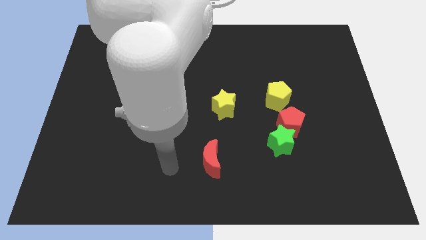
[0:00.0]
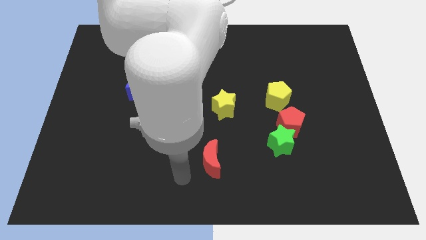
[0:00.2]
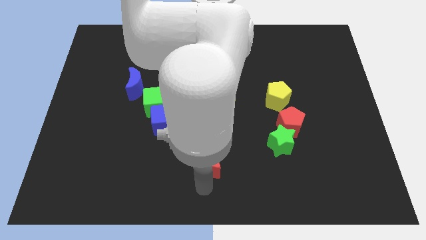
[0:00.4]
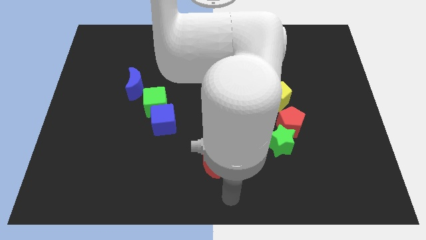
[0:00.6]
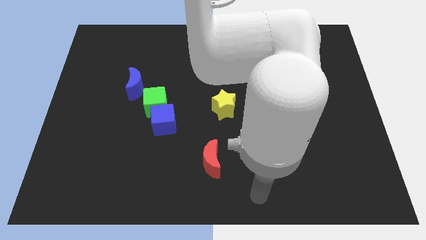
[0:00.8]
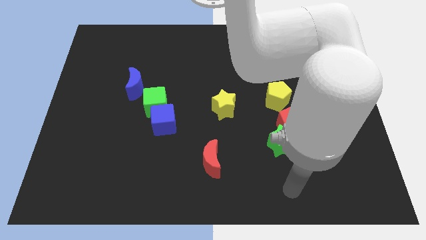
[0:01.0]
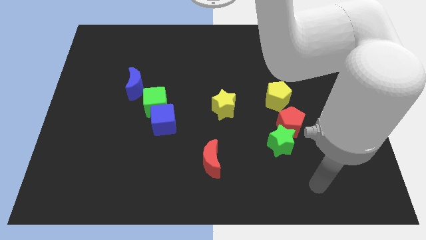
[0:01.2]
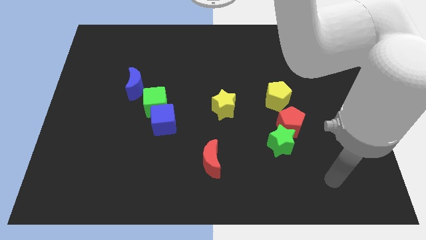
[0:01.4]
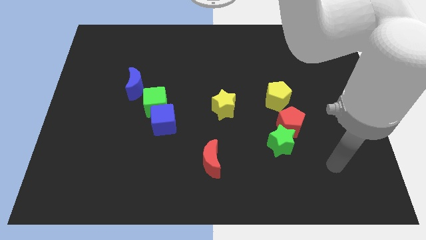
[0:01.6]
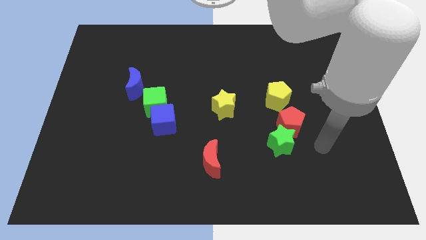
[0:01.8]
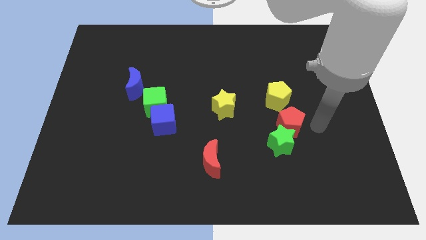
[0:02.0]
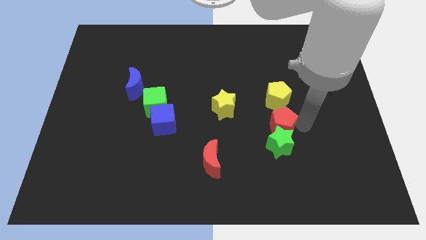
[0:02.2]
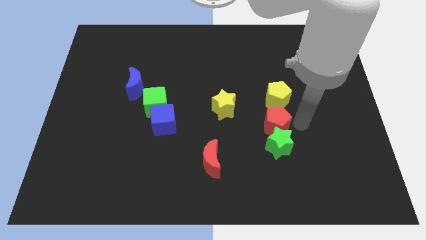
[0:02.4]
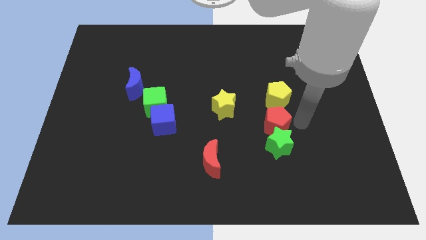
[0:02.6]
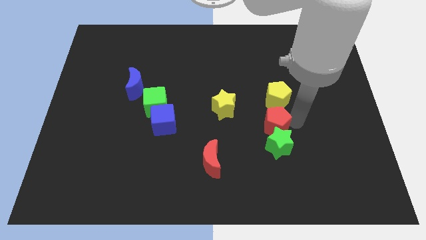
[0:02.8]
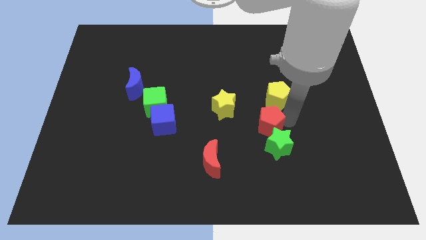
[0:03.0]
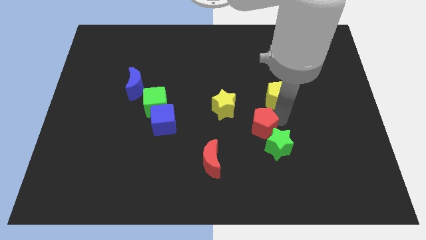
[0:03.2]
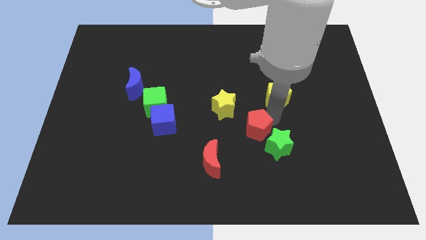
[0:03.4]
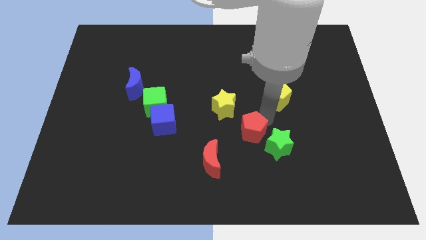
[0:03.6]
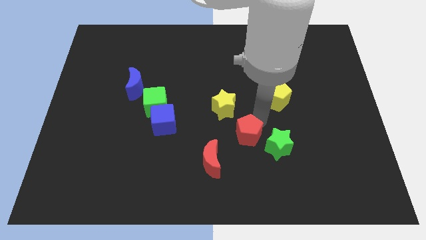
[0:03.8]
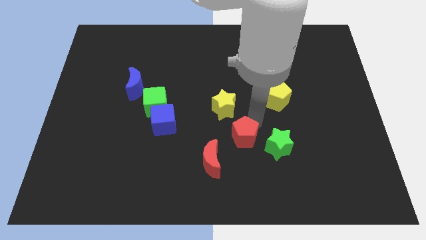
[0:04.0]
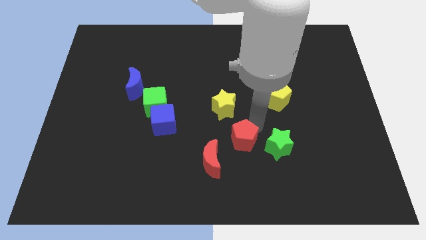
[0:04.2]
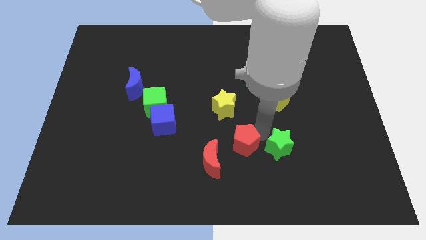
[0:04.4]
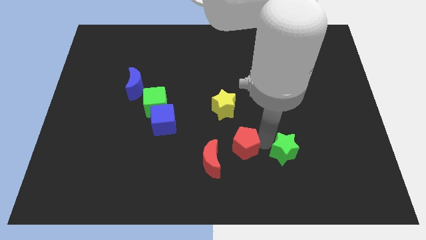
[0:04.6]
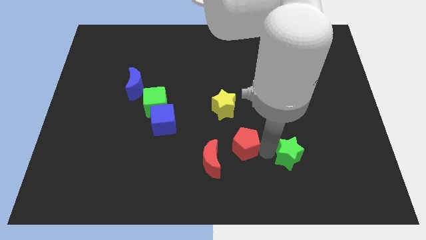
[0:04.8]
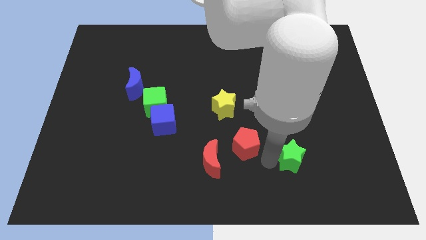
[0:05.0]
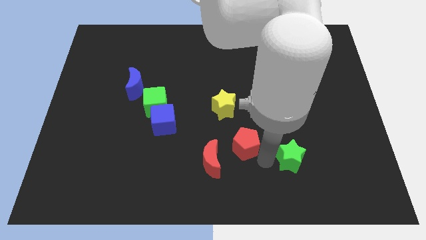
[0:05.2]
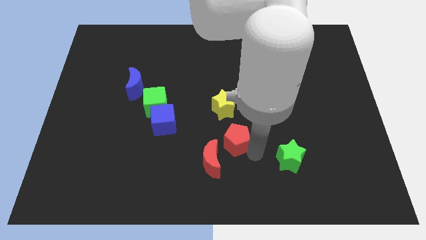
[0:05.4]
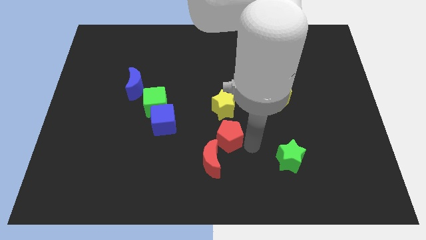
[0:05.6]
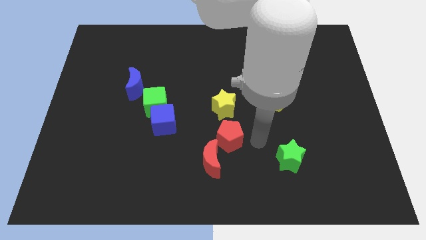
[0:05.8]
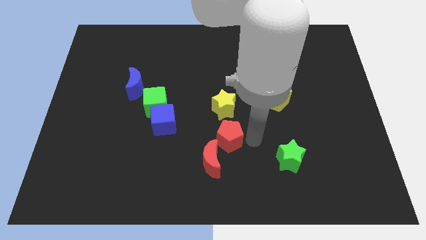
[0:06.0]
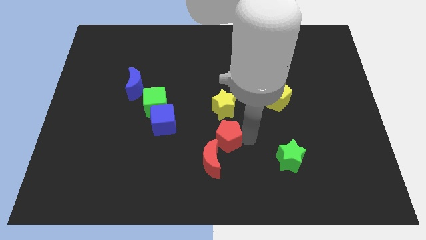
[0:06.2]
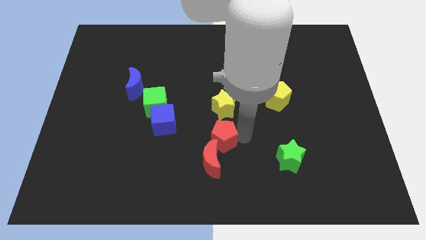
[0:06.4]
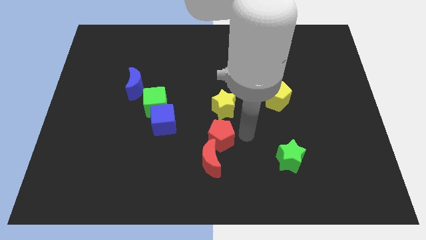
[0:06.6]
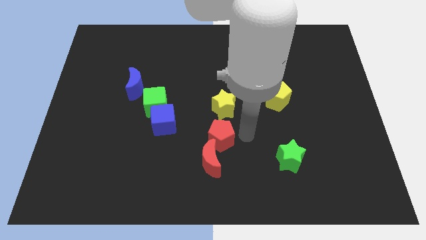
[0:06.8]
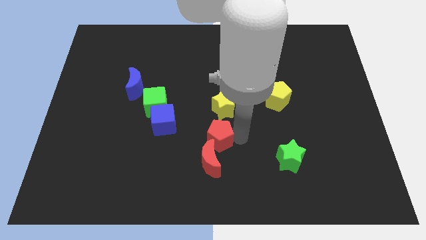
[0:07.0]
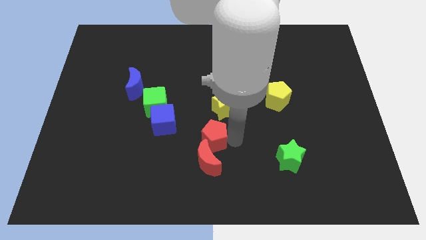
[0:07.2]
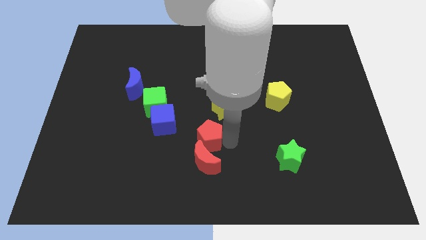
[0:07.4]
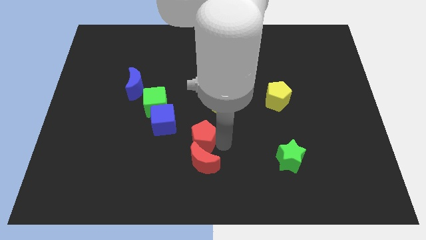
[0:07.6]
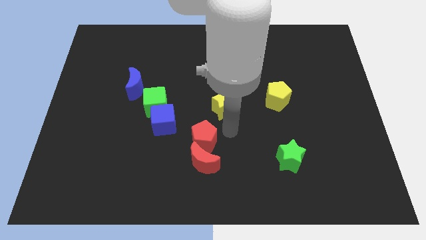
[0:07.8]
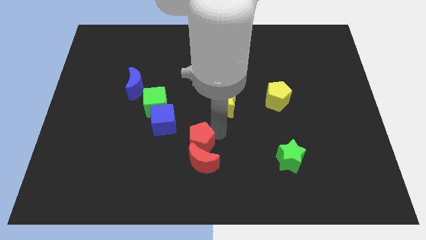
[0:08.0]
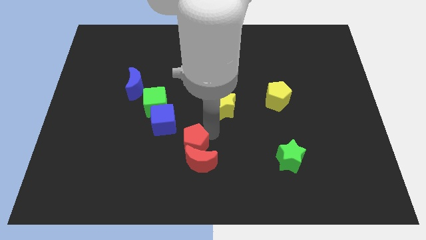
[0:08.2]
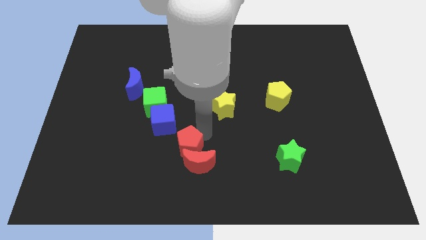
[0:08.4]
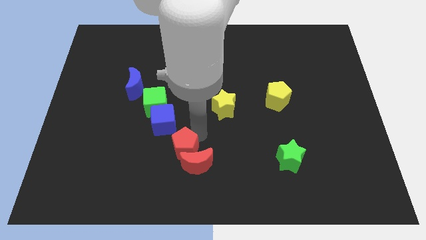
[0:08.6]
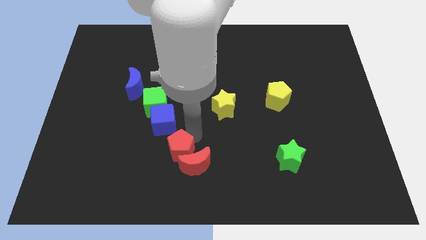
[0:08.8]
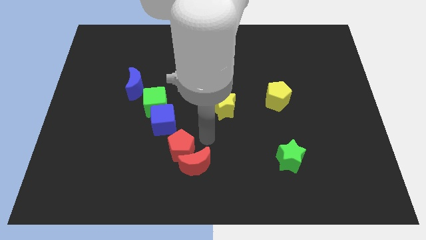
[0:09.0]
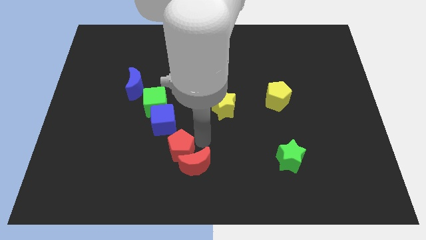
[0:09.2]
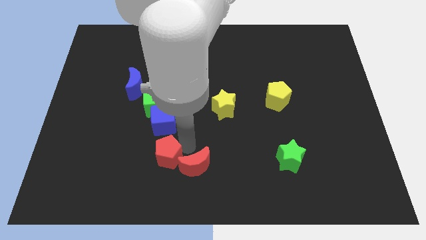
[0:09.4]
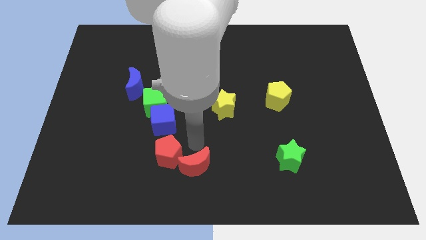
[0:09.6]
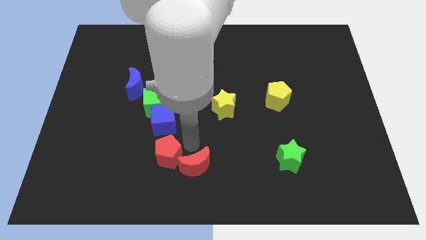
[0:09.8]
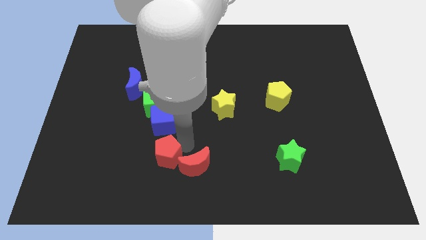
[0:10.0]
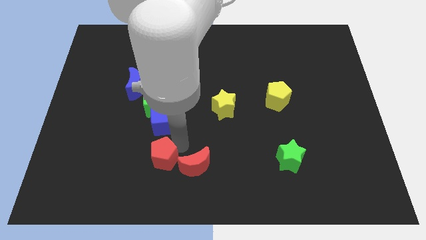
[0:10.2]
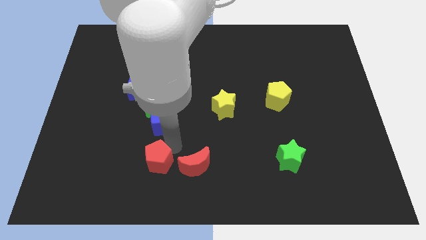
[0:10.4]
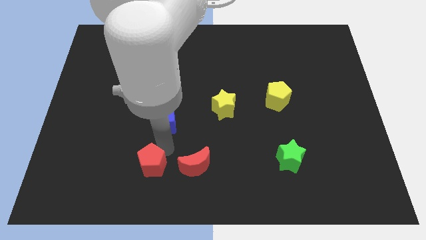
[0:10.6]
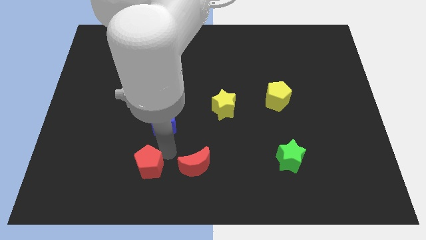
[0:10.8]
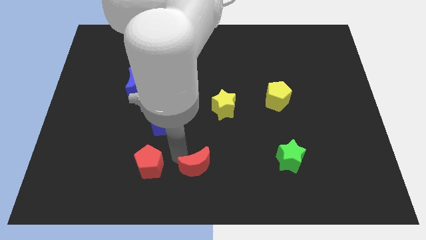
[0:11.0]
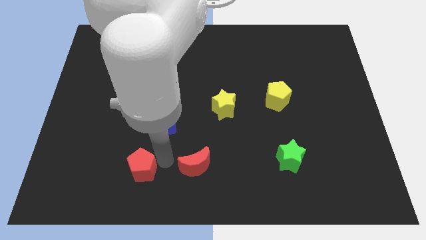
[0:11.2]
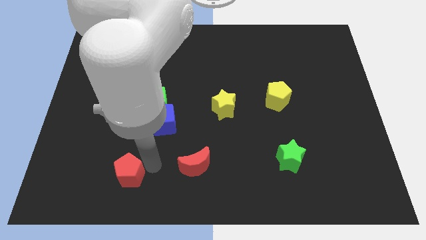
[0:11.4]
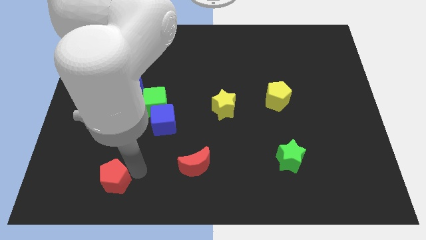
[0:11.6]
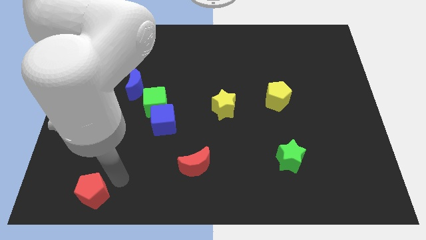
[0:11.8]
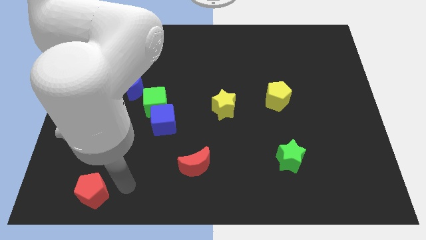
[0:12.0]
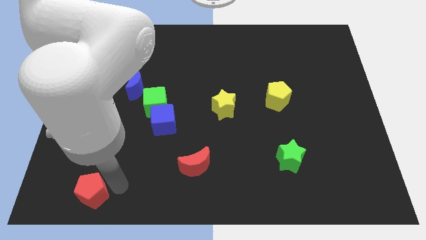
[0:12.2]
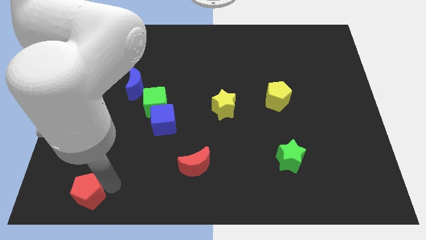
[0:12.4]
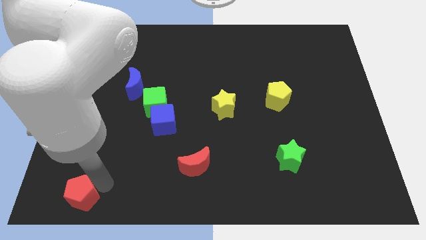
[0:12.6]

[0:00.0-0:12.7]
push the red pentagon to the bottom left

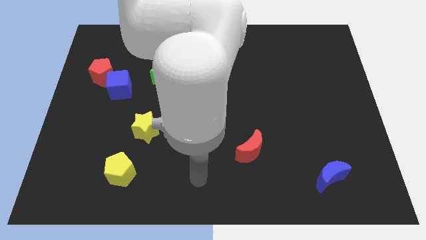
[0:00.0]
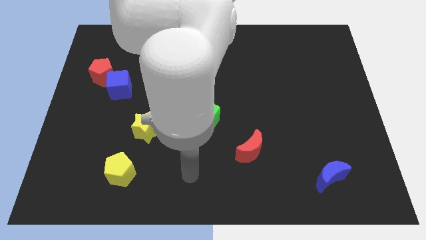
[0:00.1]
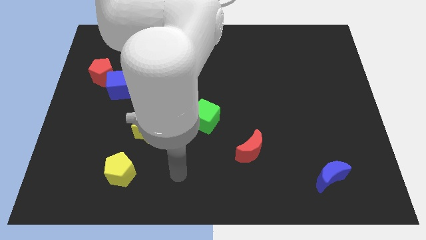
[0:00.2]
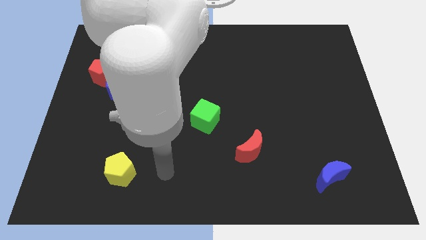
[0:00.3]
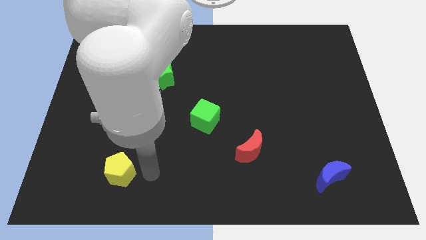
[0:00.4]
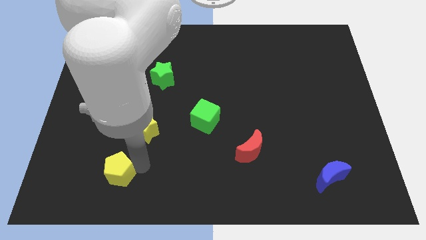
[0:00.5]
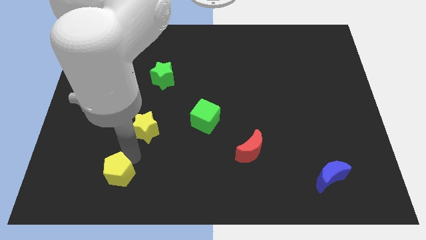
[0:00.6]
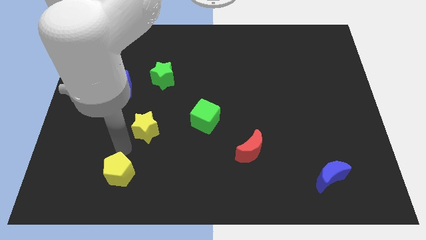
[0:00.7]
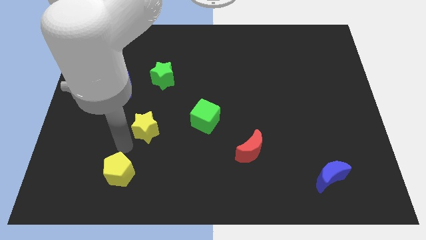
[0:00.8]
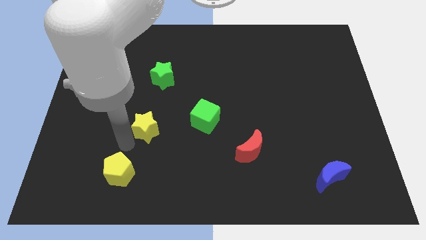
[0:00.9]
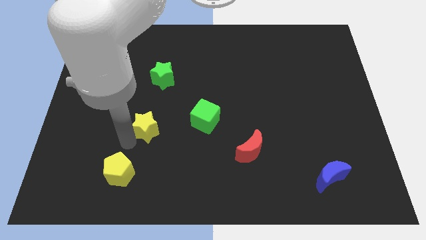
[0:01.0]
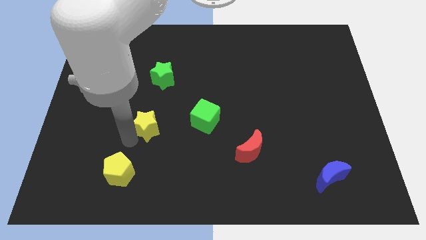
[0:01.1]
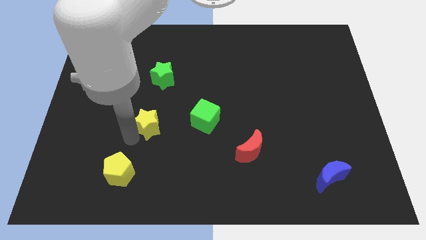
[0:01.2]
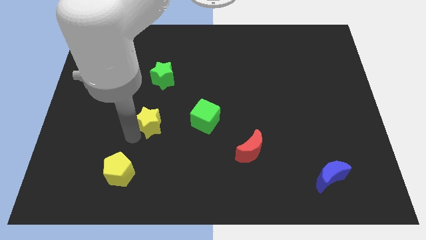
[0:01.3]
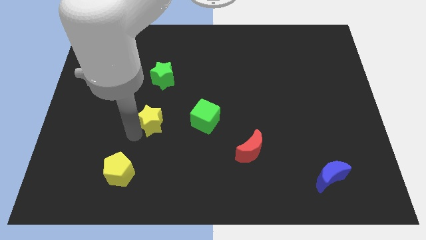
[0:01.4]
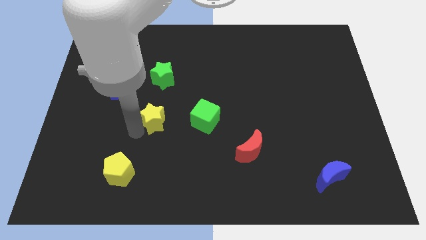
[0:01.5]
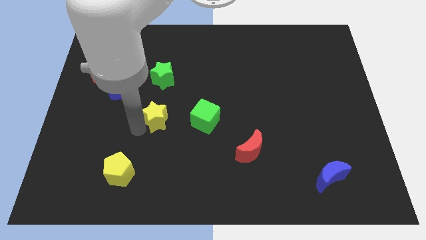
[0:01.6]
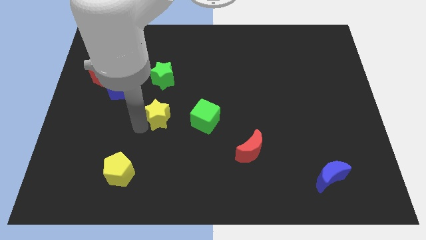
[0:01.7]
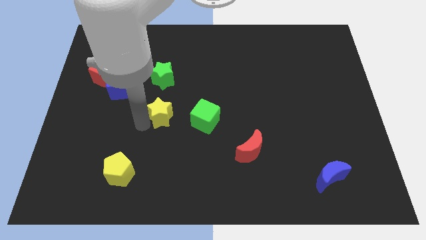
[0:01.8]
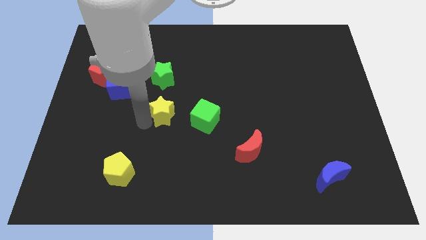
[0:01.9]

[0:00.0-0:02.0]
move the yellow star to the center
